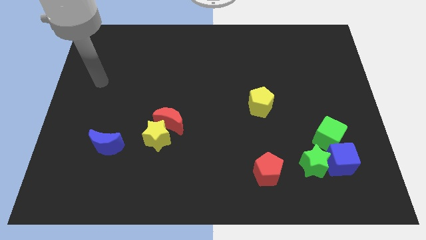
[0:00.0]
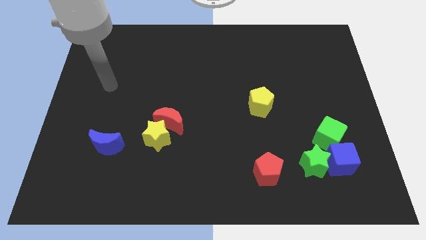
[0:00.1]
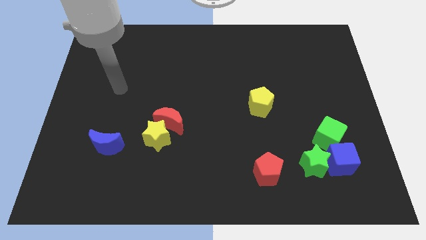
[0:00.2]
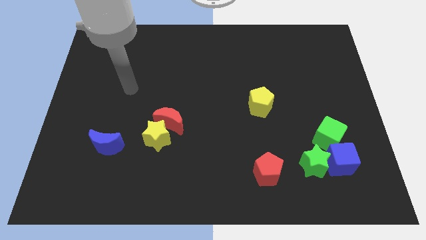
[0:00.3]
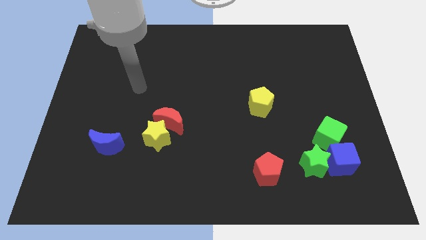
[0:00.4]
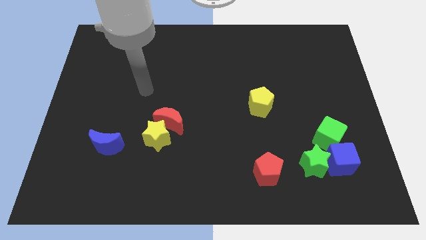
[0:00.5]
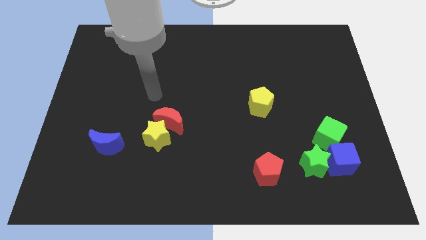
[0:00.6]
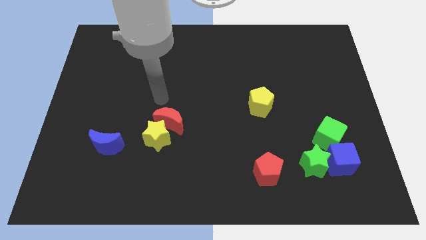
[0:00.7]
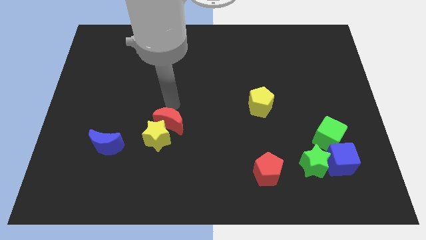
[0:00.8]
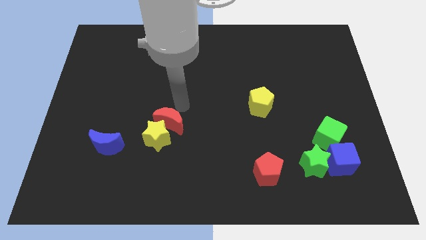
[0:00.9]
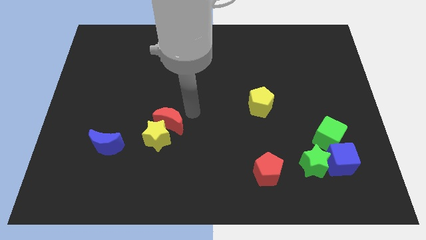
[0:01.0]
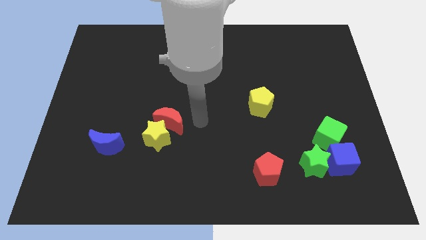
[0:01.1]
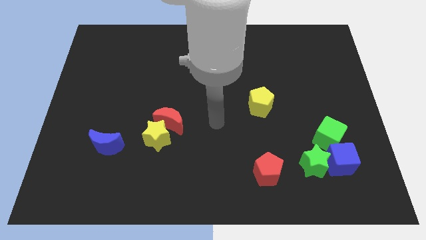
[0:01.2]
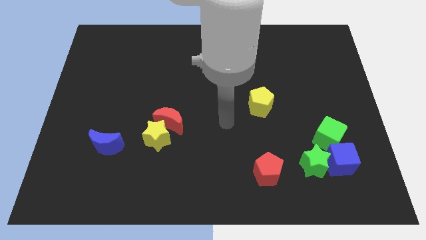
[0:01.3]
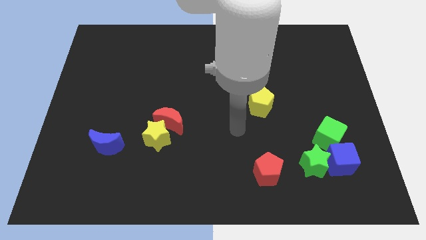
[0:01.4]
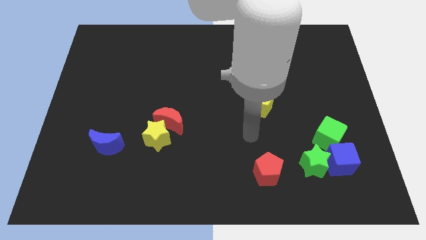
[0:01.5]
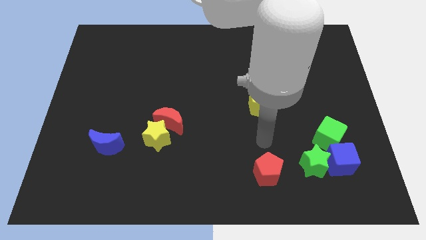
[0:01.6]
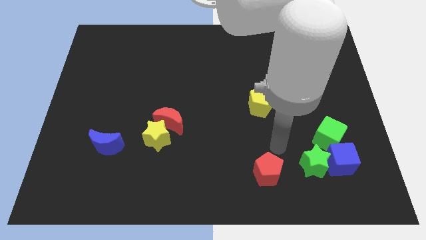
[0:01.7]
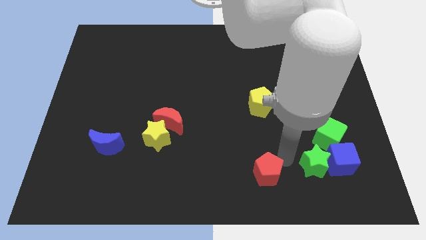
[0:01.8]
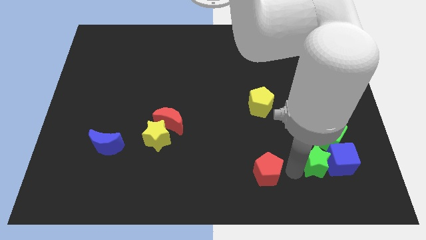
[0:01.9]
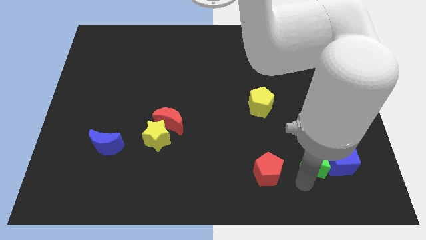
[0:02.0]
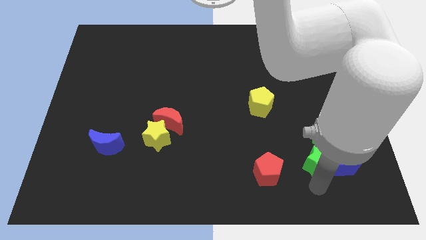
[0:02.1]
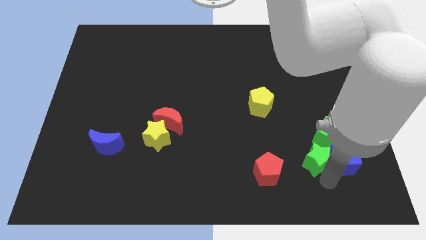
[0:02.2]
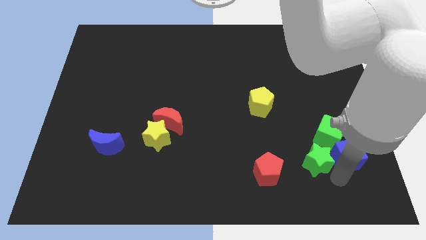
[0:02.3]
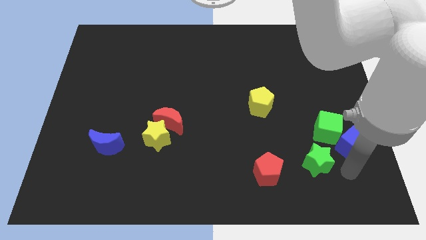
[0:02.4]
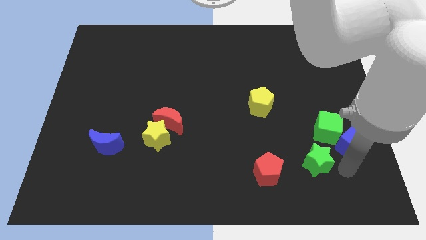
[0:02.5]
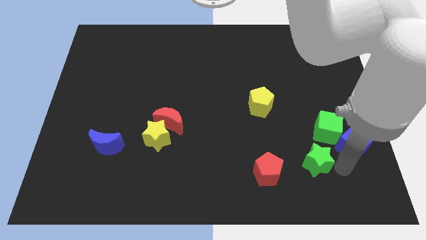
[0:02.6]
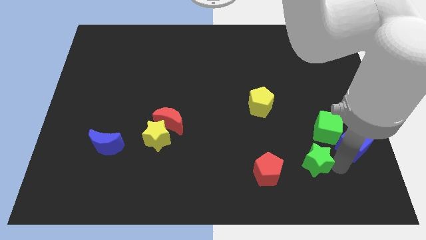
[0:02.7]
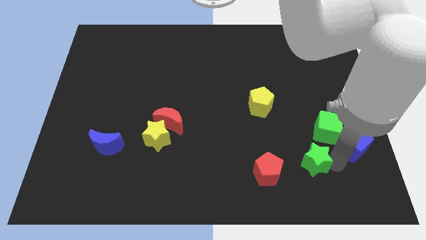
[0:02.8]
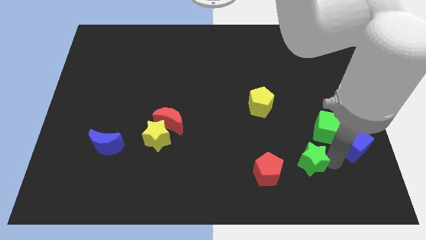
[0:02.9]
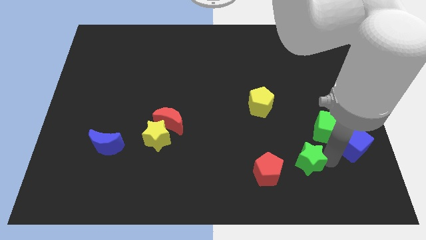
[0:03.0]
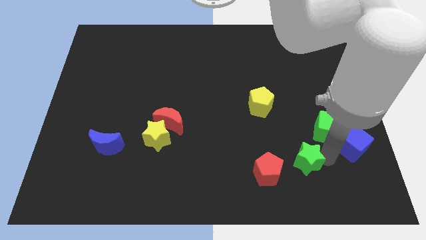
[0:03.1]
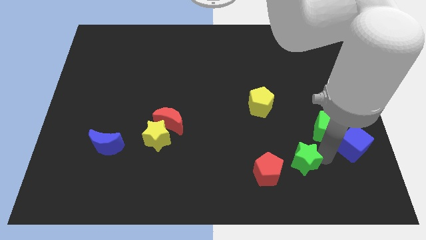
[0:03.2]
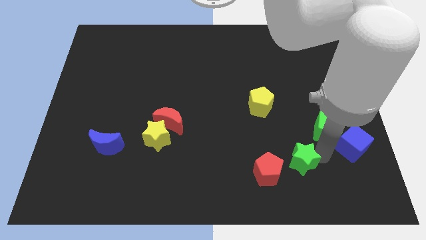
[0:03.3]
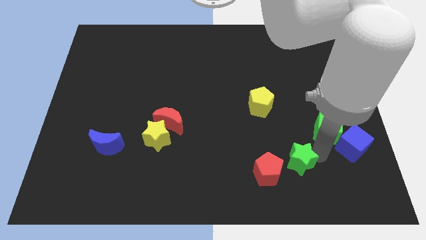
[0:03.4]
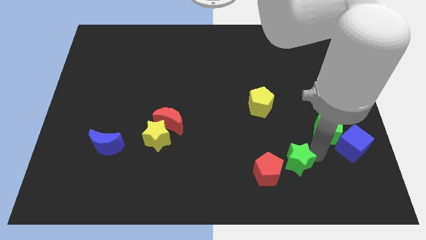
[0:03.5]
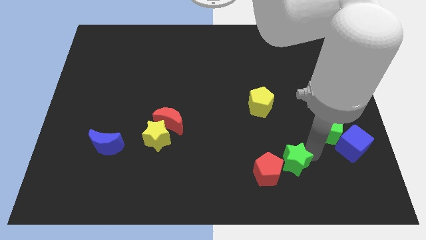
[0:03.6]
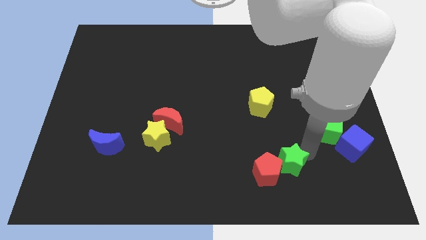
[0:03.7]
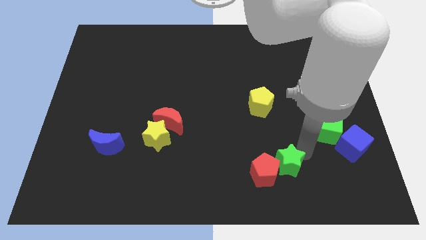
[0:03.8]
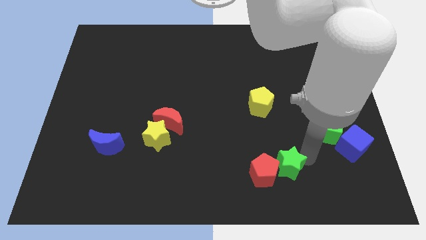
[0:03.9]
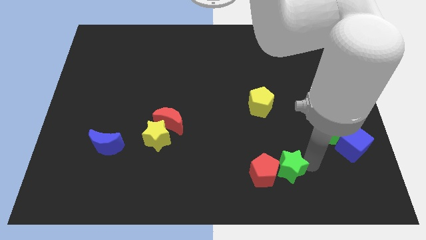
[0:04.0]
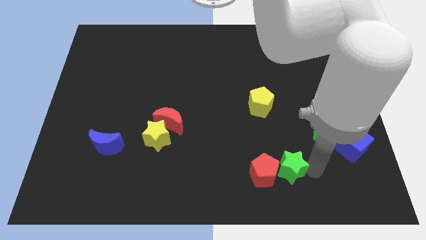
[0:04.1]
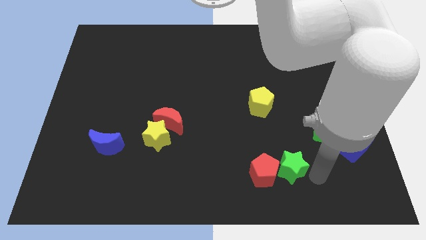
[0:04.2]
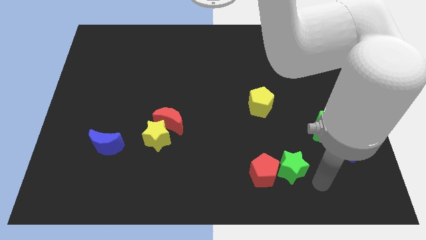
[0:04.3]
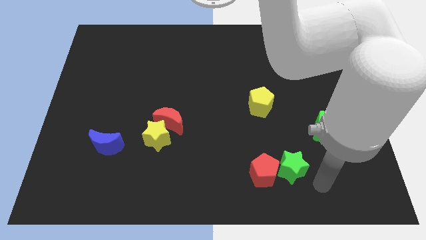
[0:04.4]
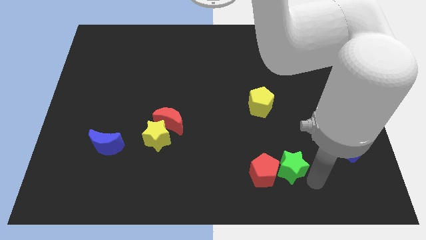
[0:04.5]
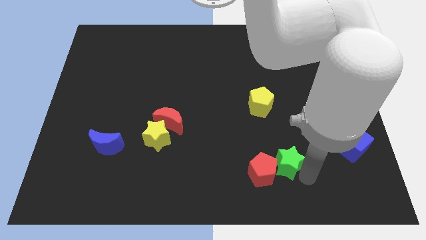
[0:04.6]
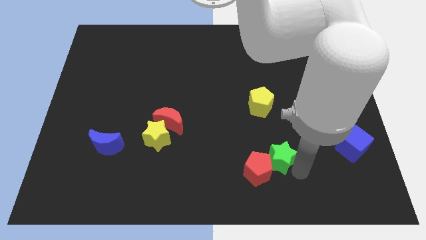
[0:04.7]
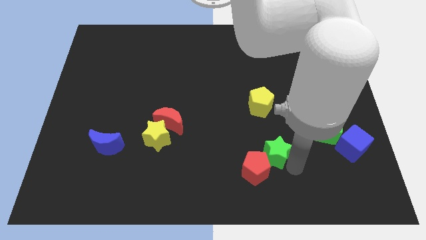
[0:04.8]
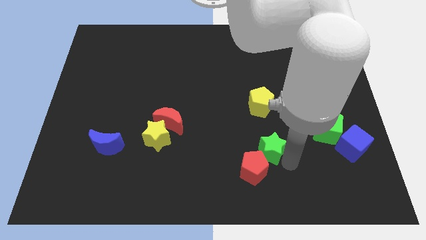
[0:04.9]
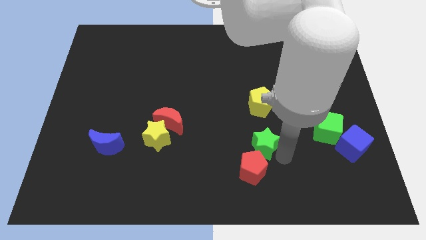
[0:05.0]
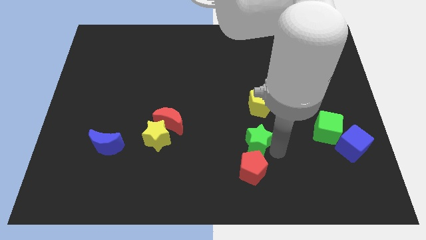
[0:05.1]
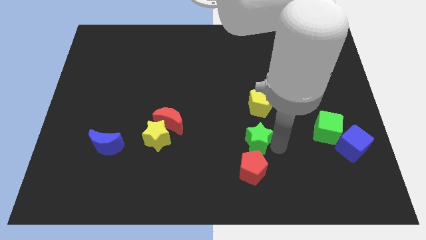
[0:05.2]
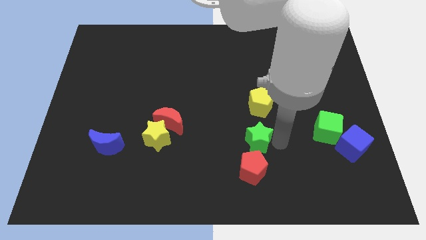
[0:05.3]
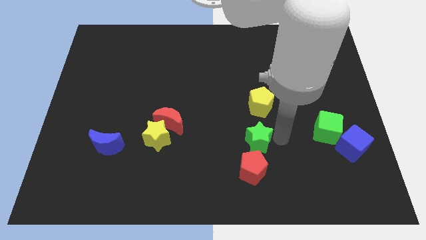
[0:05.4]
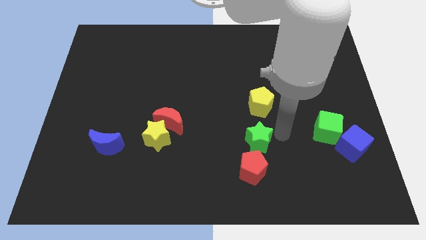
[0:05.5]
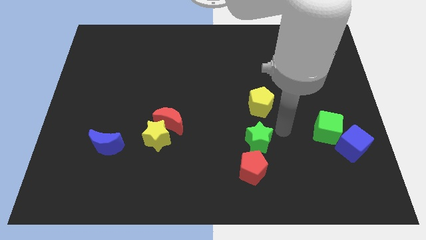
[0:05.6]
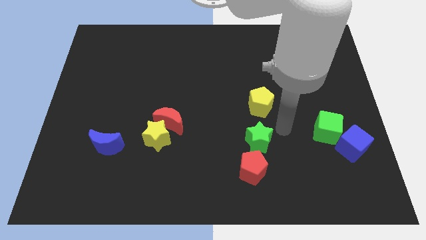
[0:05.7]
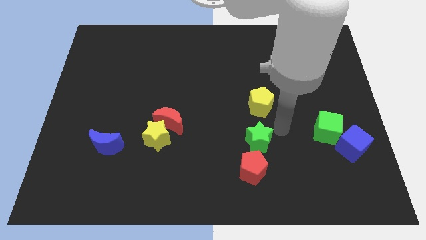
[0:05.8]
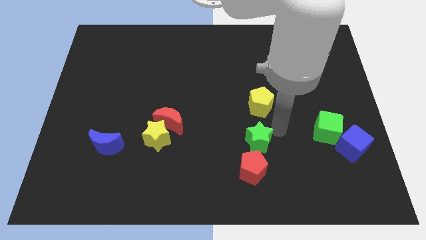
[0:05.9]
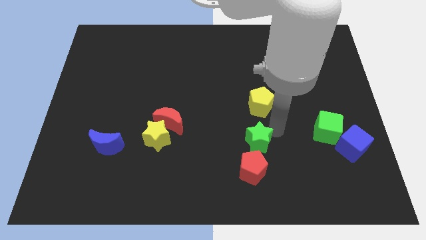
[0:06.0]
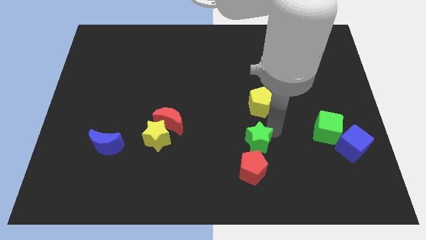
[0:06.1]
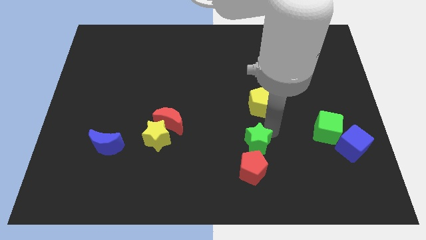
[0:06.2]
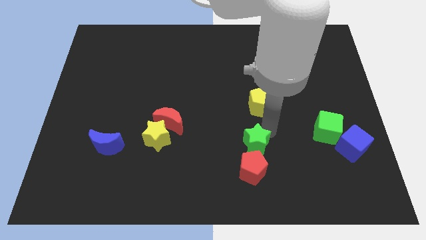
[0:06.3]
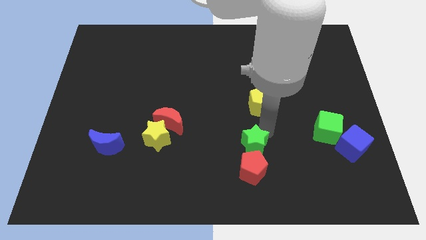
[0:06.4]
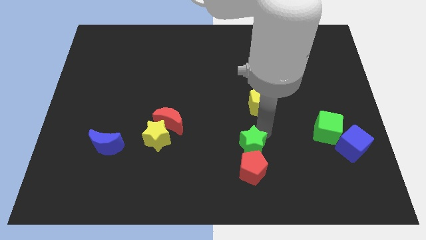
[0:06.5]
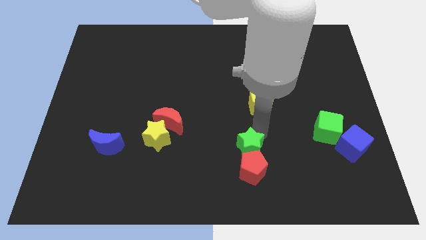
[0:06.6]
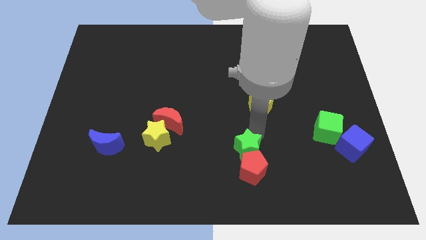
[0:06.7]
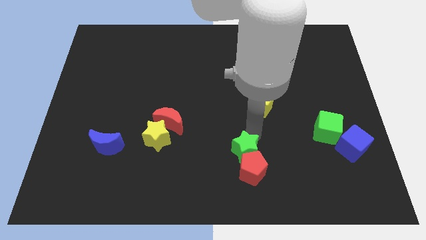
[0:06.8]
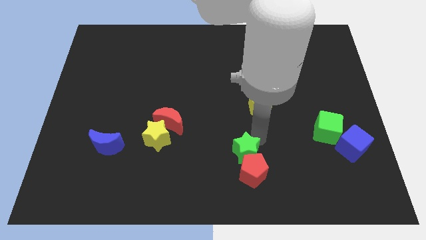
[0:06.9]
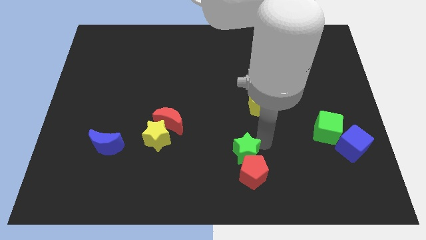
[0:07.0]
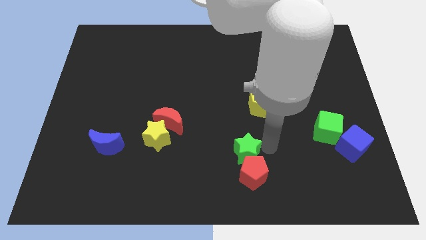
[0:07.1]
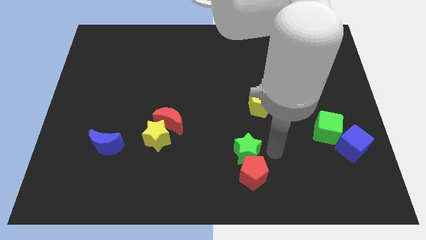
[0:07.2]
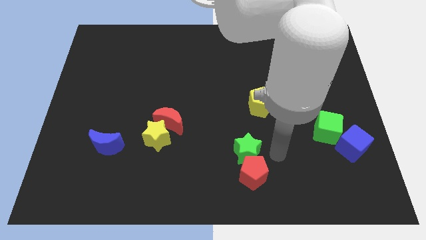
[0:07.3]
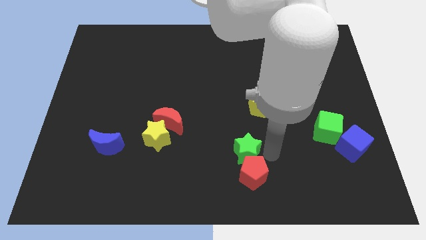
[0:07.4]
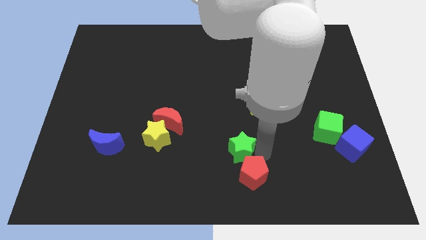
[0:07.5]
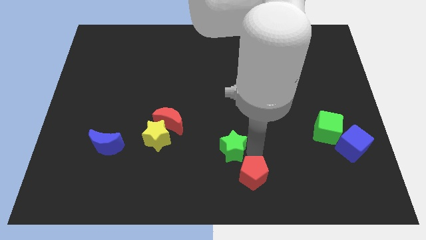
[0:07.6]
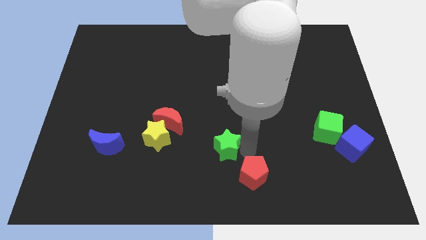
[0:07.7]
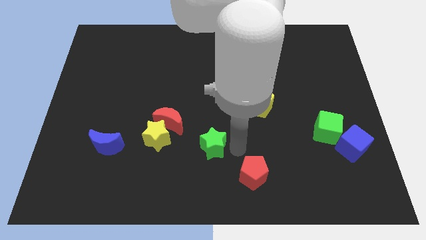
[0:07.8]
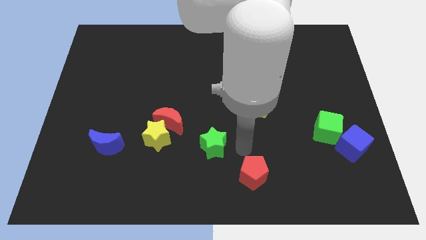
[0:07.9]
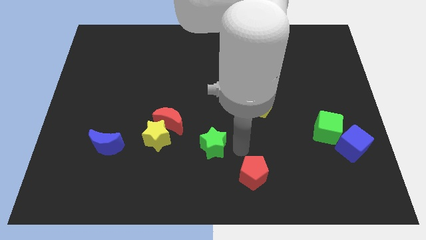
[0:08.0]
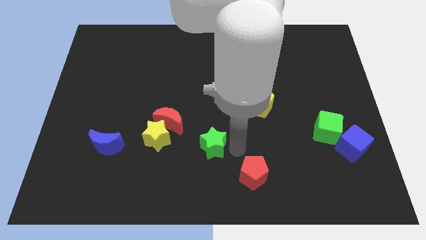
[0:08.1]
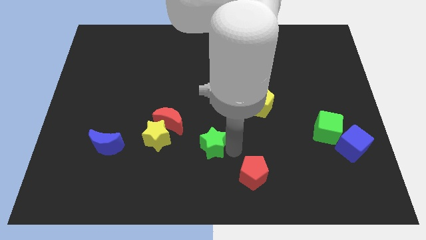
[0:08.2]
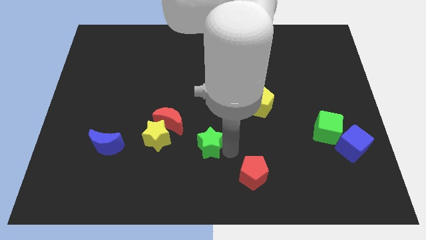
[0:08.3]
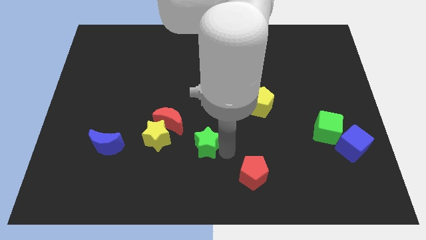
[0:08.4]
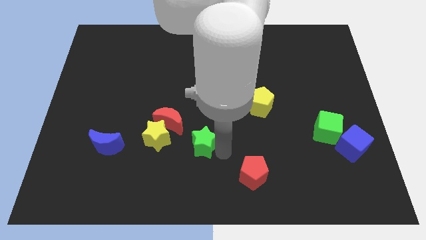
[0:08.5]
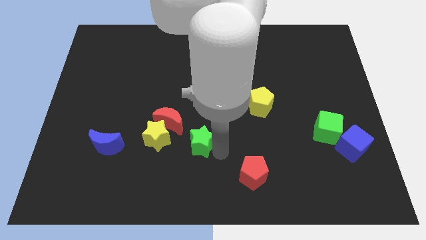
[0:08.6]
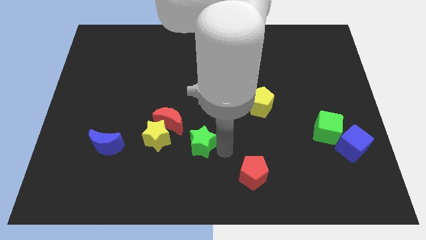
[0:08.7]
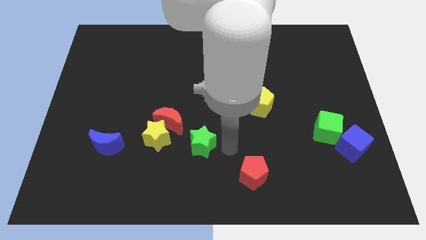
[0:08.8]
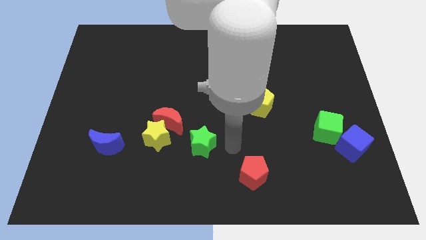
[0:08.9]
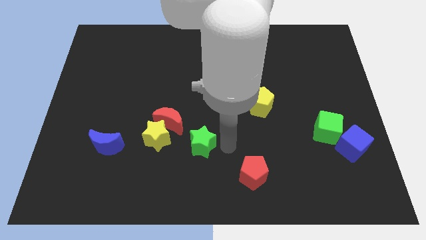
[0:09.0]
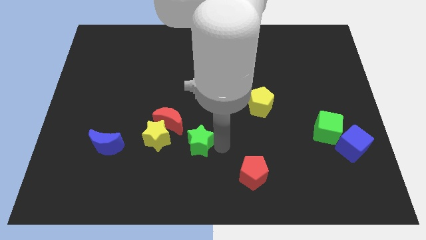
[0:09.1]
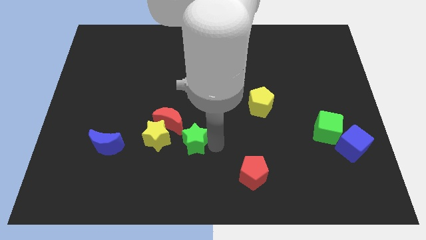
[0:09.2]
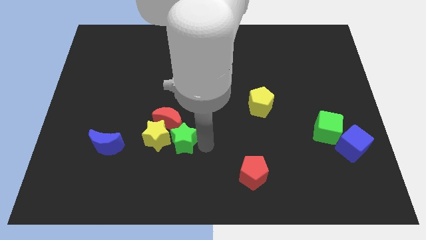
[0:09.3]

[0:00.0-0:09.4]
put the green star to the red moon
